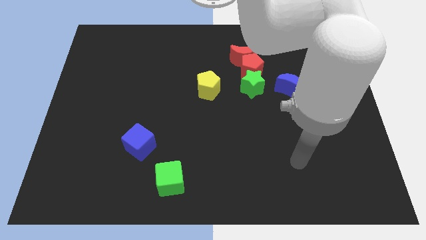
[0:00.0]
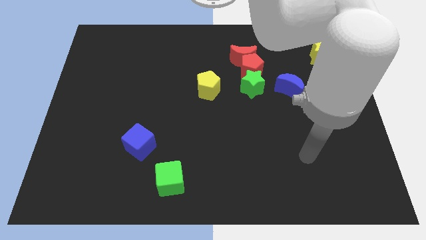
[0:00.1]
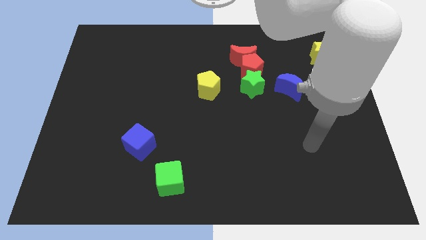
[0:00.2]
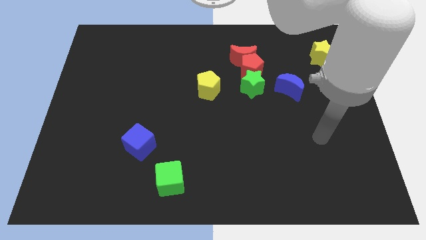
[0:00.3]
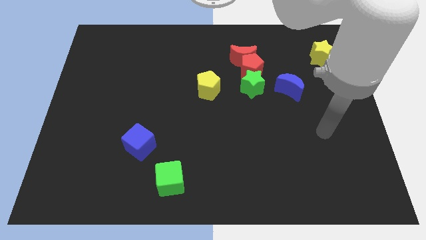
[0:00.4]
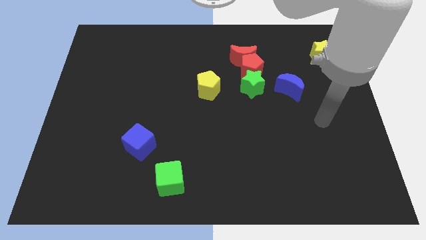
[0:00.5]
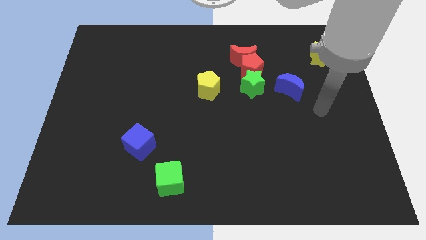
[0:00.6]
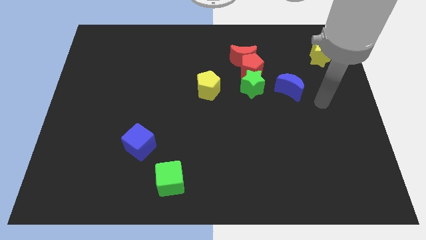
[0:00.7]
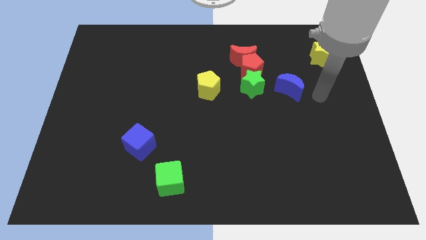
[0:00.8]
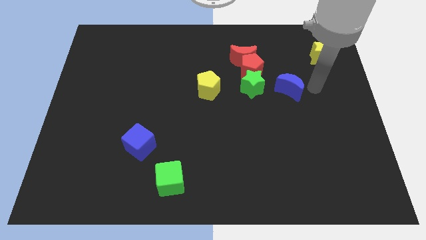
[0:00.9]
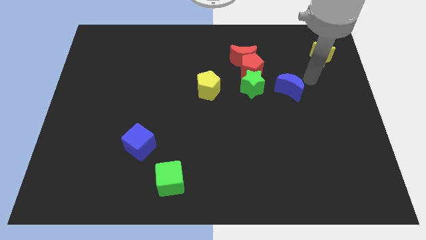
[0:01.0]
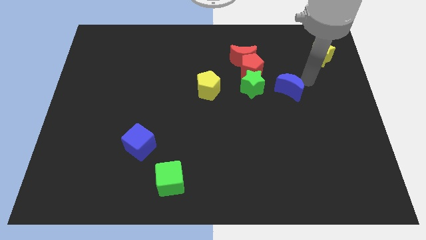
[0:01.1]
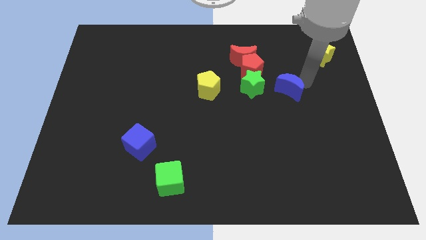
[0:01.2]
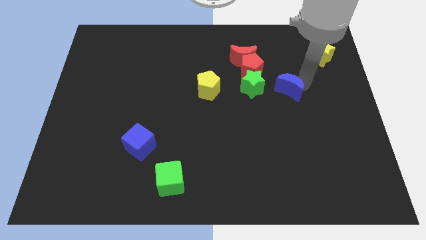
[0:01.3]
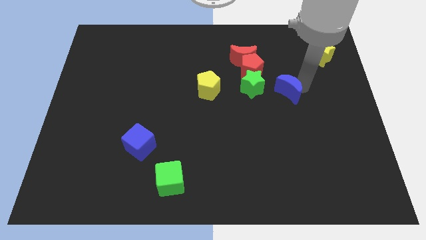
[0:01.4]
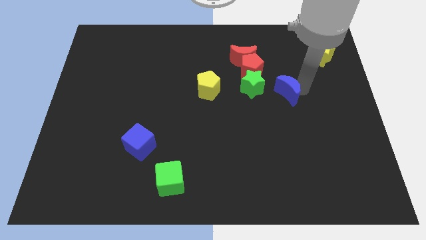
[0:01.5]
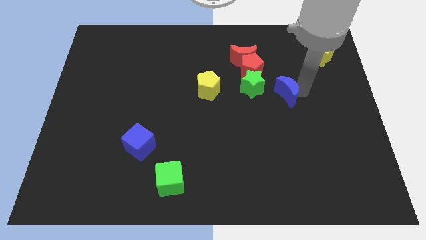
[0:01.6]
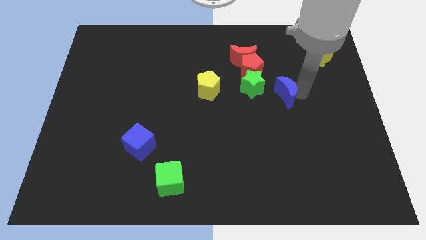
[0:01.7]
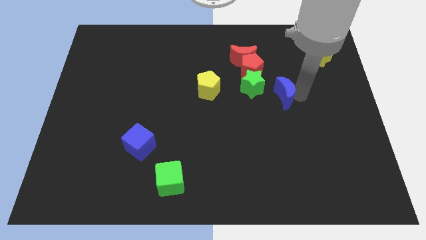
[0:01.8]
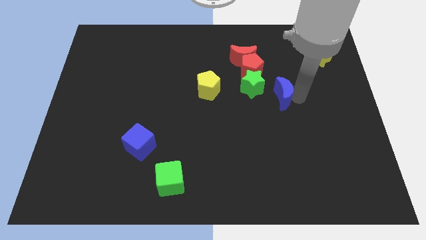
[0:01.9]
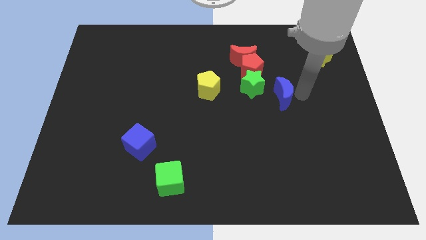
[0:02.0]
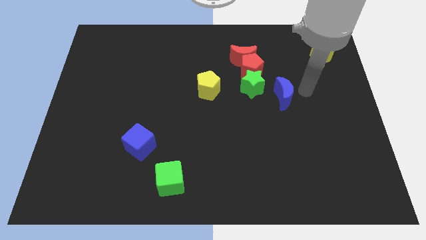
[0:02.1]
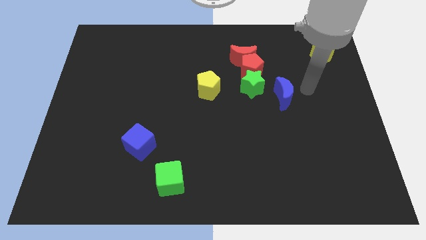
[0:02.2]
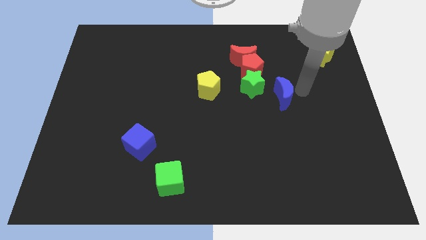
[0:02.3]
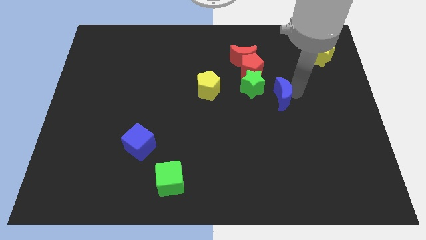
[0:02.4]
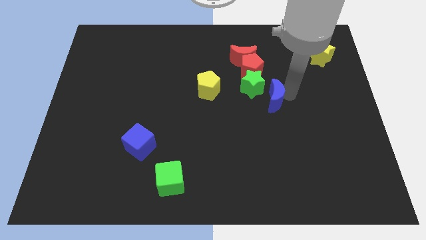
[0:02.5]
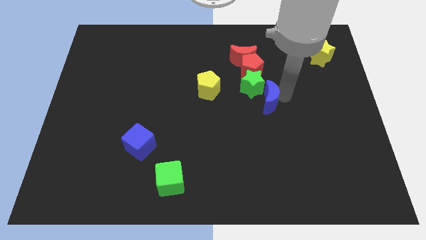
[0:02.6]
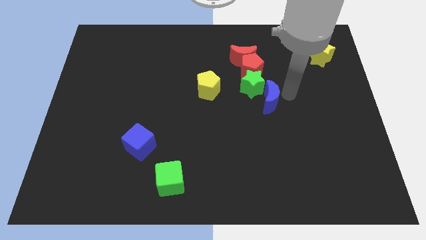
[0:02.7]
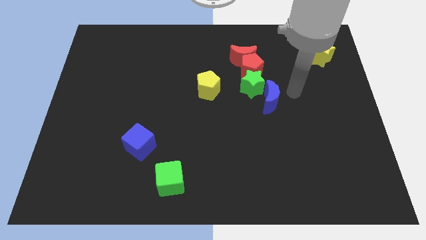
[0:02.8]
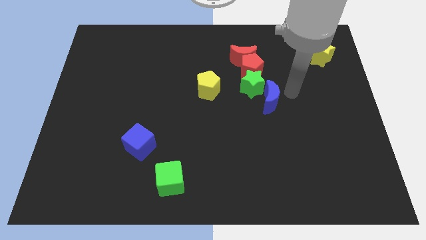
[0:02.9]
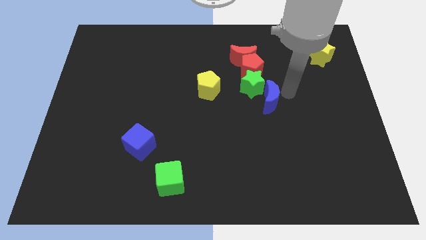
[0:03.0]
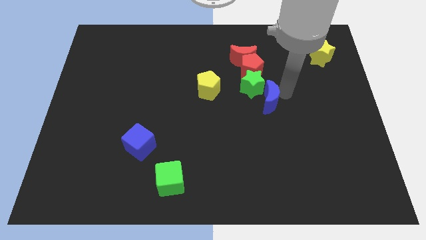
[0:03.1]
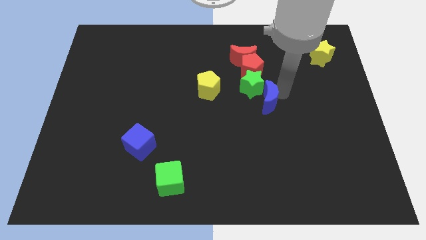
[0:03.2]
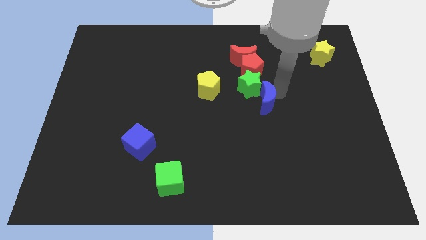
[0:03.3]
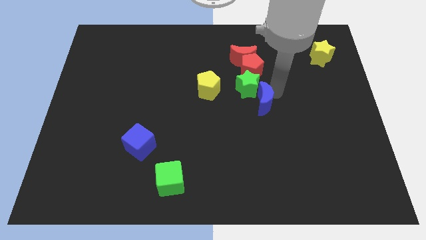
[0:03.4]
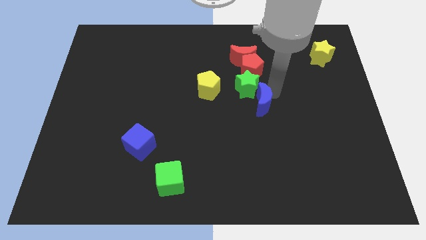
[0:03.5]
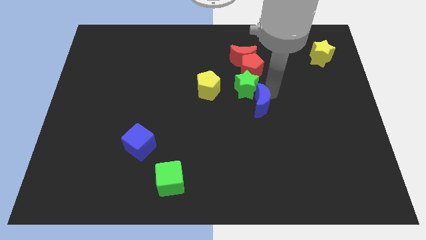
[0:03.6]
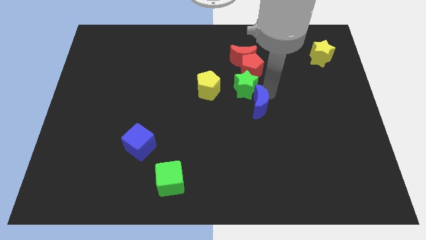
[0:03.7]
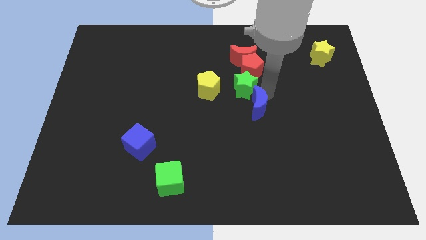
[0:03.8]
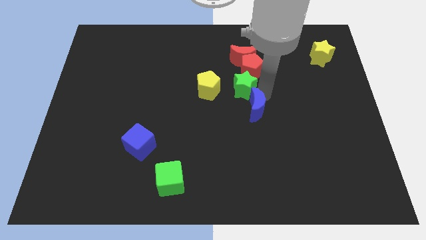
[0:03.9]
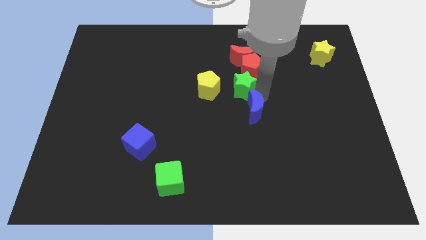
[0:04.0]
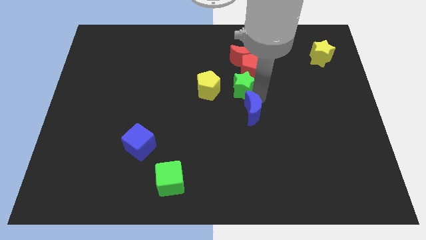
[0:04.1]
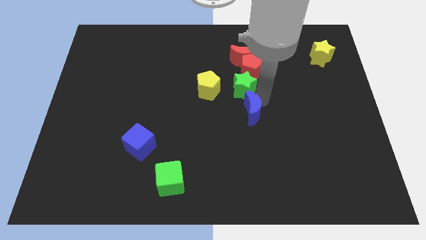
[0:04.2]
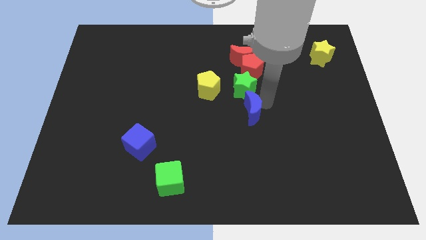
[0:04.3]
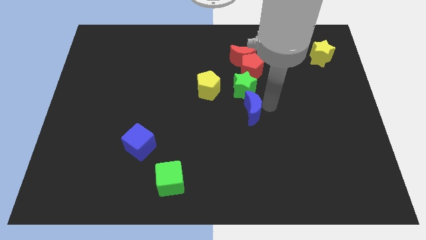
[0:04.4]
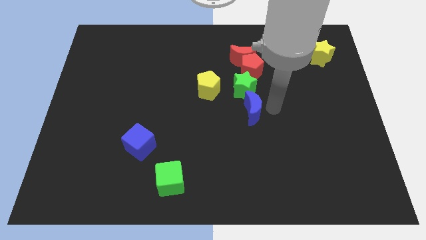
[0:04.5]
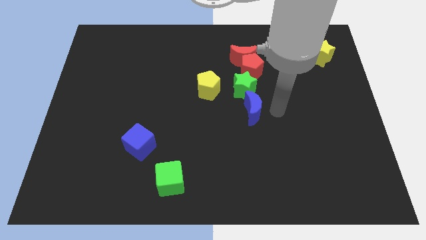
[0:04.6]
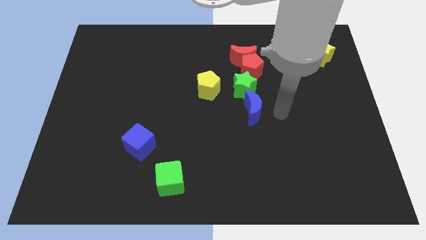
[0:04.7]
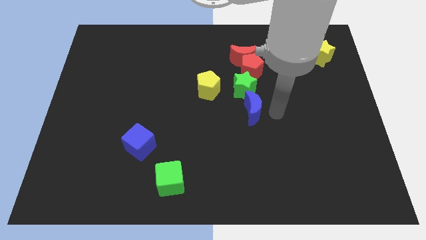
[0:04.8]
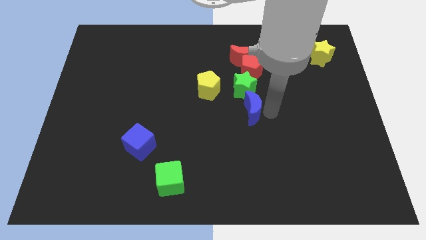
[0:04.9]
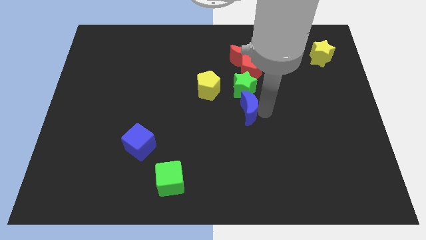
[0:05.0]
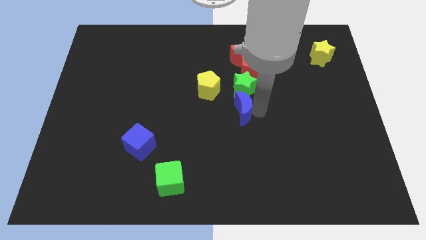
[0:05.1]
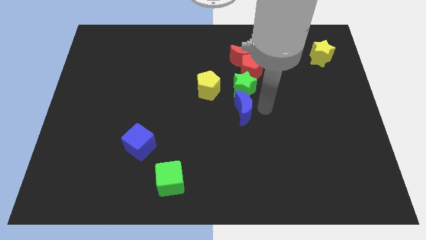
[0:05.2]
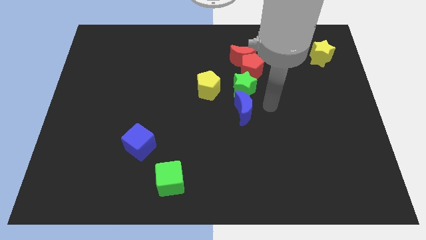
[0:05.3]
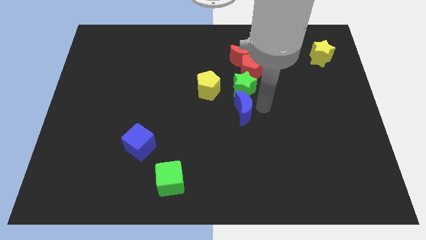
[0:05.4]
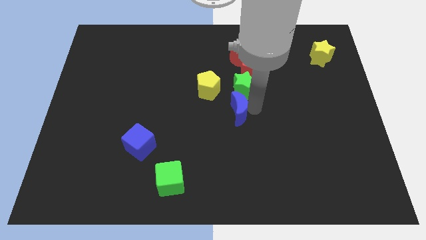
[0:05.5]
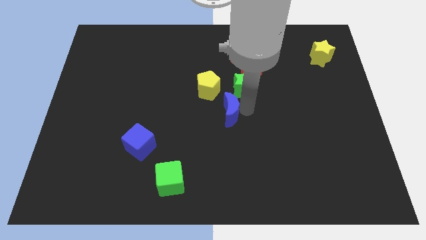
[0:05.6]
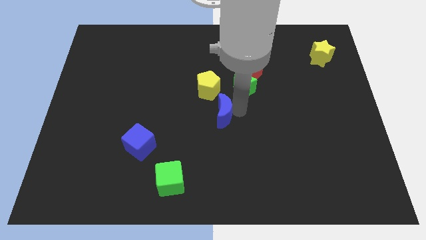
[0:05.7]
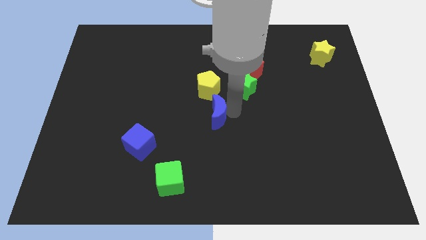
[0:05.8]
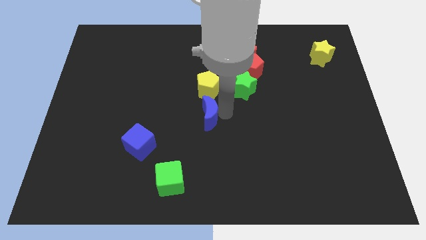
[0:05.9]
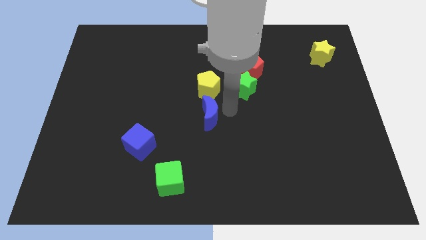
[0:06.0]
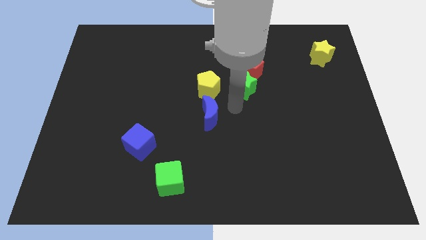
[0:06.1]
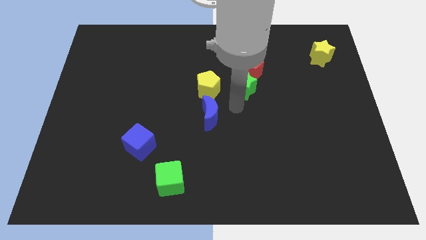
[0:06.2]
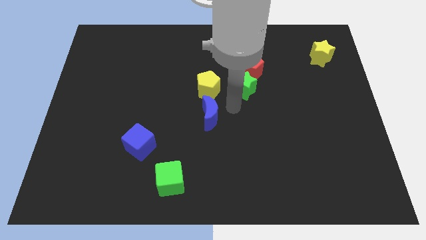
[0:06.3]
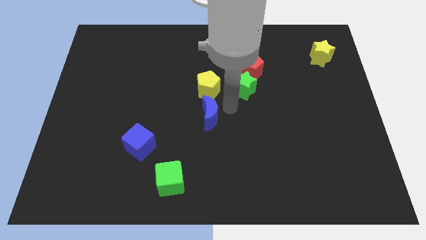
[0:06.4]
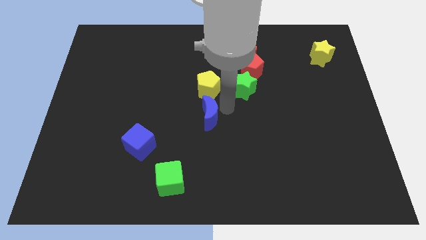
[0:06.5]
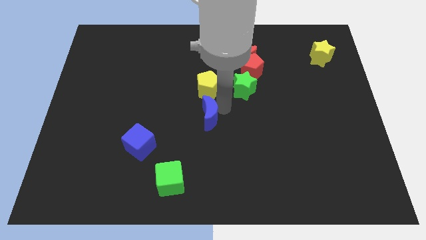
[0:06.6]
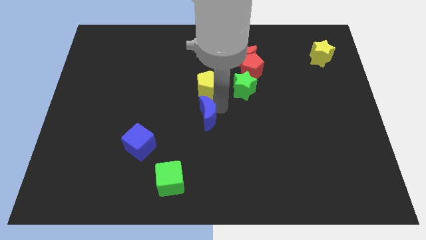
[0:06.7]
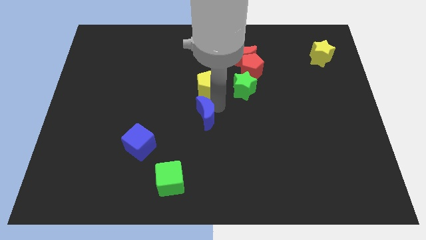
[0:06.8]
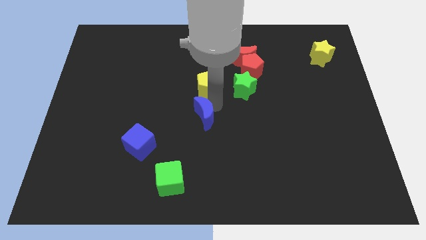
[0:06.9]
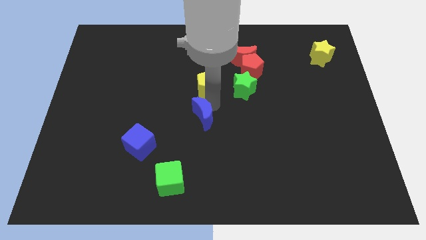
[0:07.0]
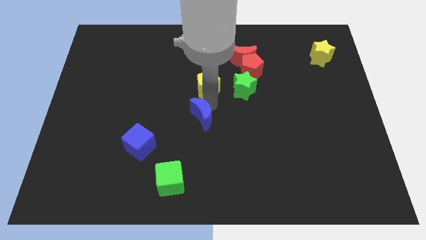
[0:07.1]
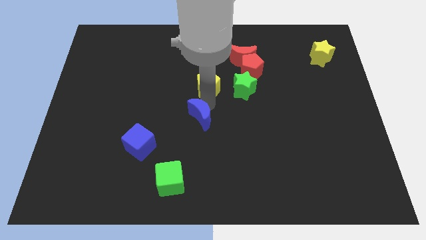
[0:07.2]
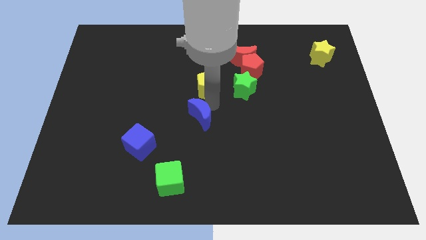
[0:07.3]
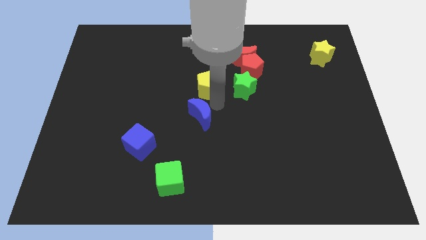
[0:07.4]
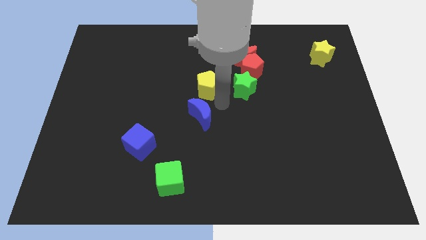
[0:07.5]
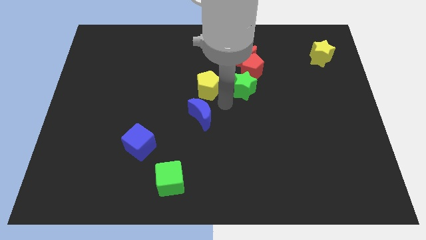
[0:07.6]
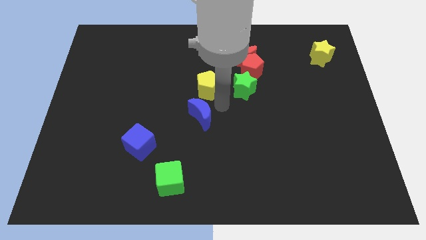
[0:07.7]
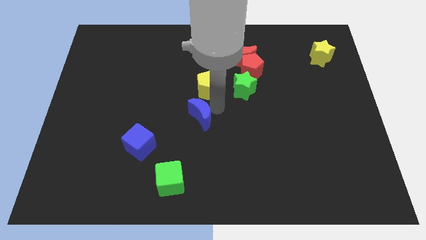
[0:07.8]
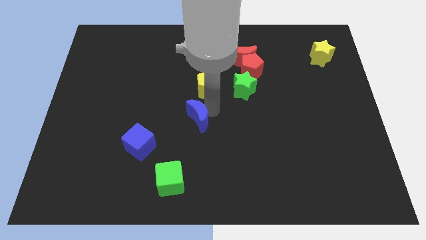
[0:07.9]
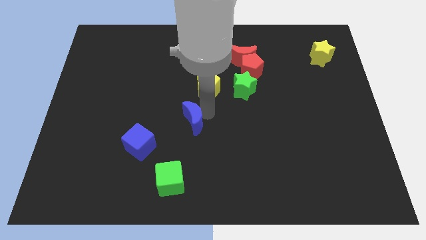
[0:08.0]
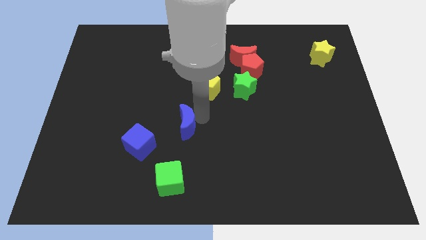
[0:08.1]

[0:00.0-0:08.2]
move the blue moon to the top right side of the blue cube
